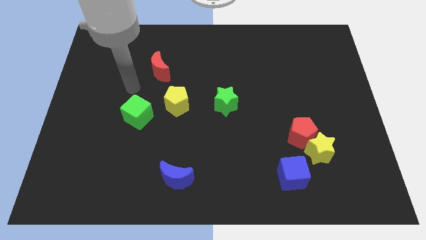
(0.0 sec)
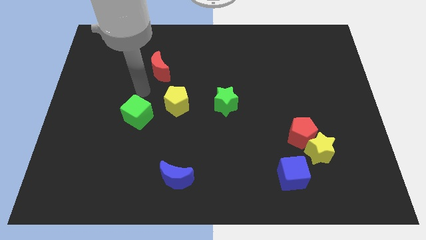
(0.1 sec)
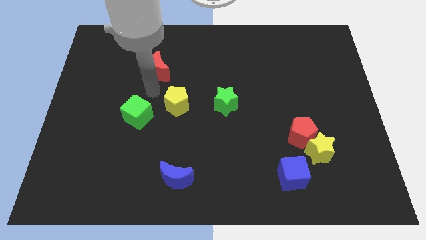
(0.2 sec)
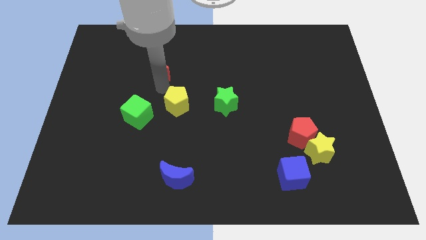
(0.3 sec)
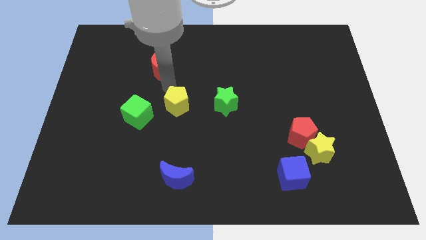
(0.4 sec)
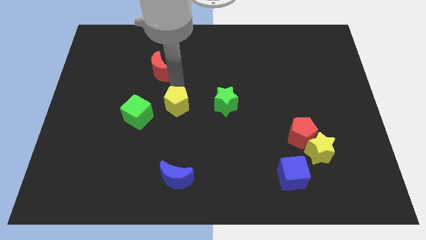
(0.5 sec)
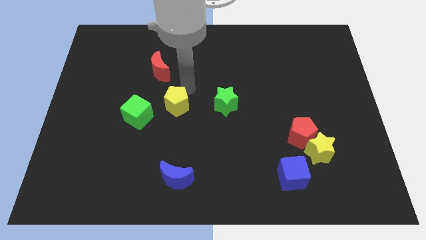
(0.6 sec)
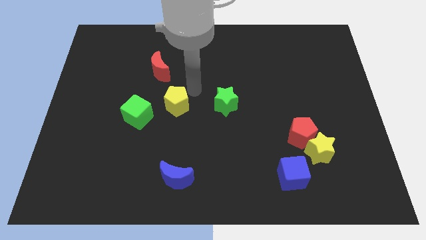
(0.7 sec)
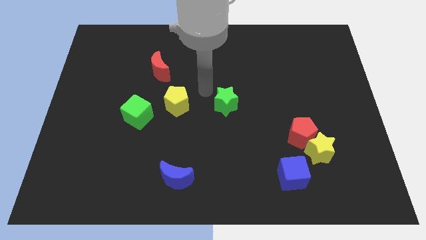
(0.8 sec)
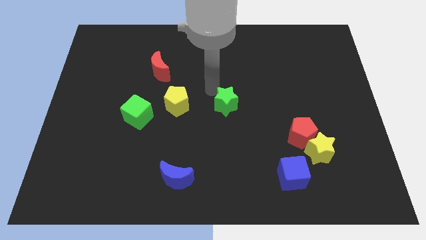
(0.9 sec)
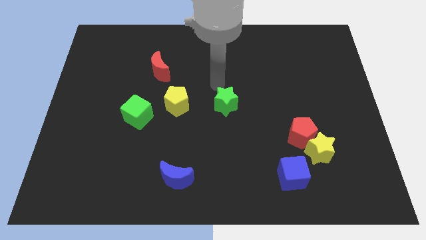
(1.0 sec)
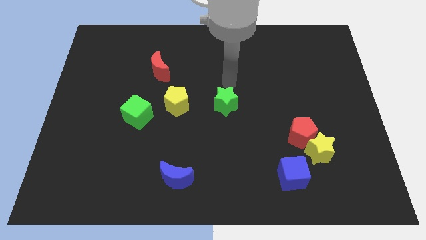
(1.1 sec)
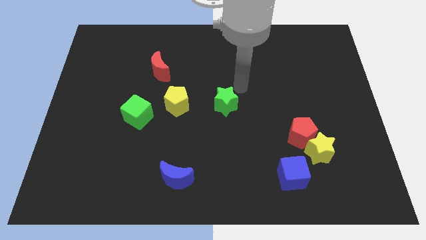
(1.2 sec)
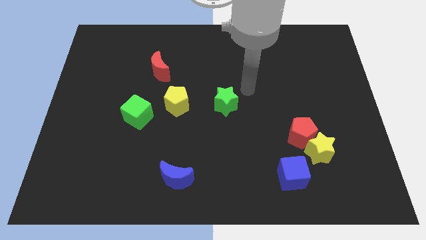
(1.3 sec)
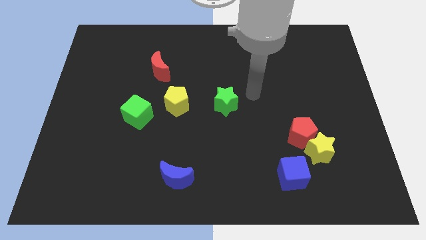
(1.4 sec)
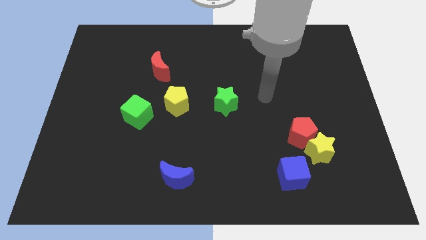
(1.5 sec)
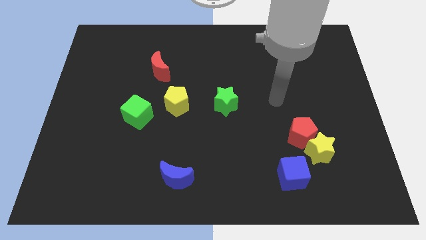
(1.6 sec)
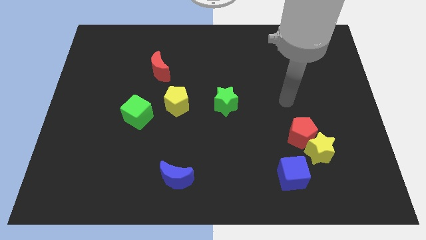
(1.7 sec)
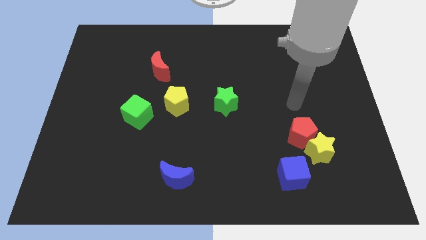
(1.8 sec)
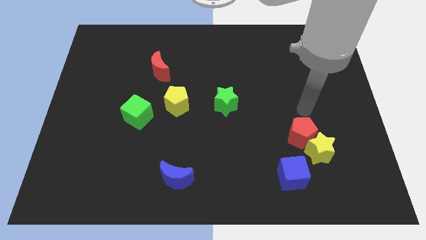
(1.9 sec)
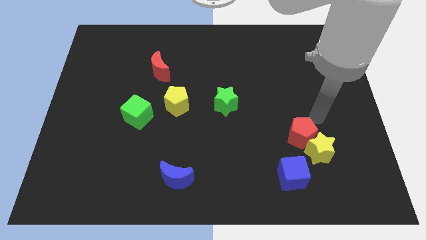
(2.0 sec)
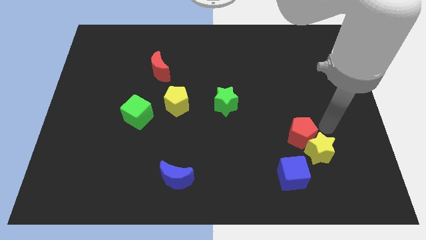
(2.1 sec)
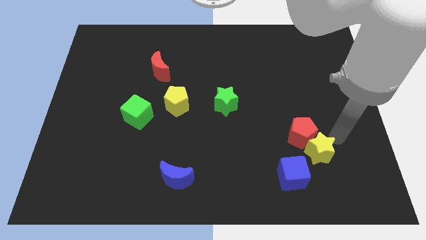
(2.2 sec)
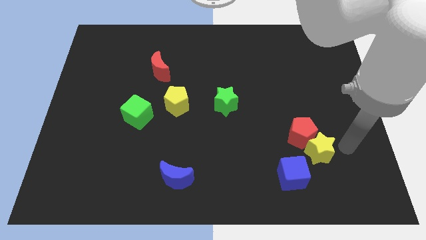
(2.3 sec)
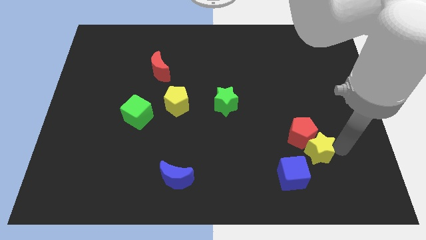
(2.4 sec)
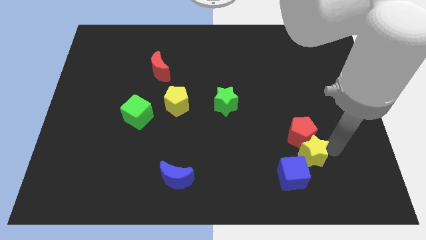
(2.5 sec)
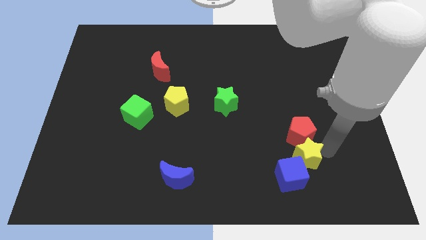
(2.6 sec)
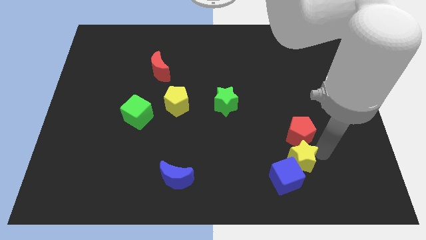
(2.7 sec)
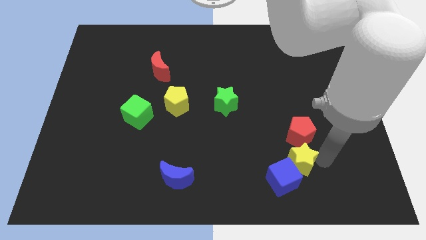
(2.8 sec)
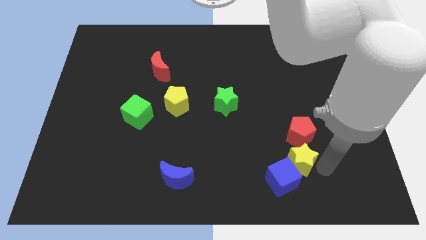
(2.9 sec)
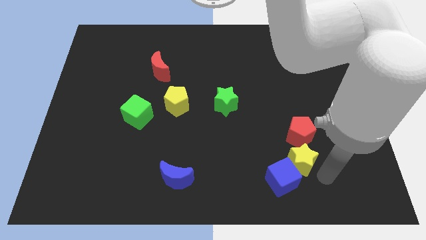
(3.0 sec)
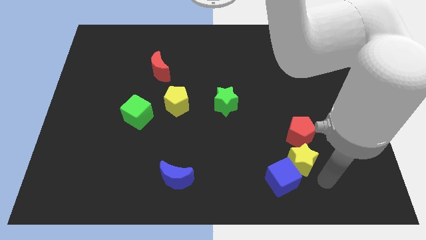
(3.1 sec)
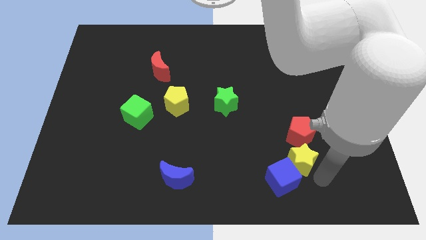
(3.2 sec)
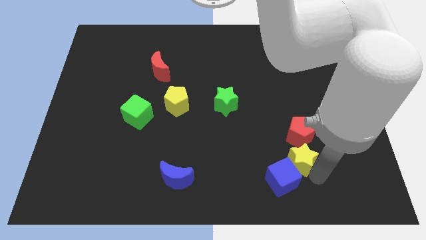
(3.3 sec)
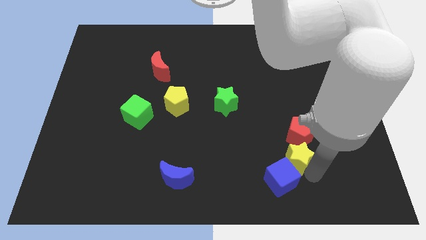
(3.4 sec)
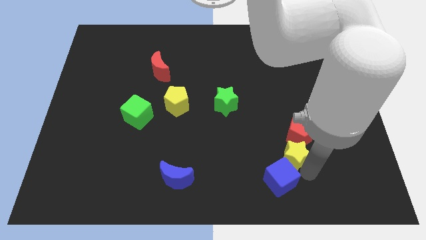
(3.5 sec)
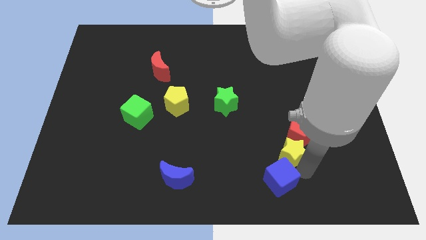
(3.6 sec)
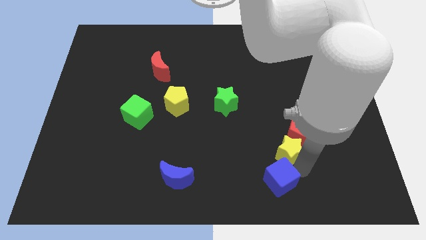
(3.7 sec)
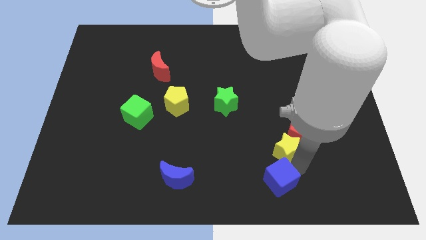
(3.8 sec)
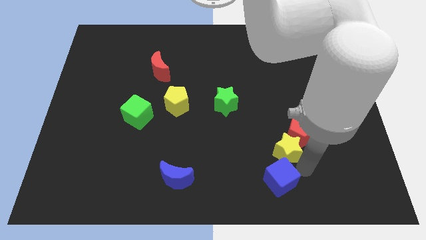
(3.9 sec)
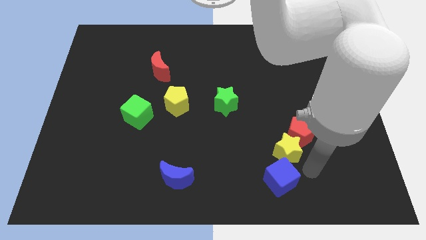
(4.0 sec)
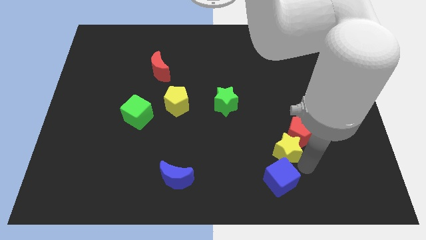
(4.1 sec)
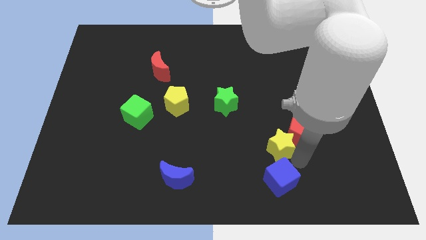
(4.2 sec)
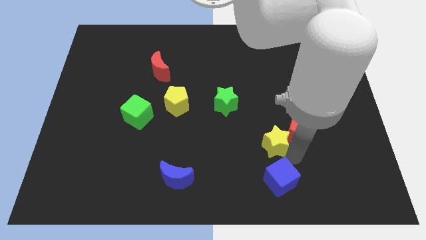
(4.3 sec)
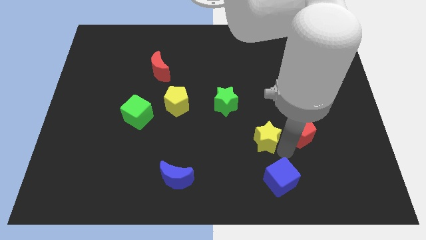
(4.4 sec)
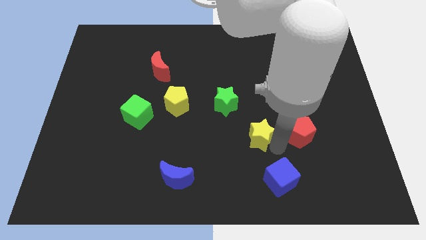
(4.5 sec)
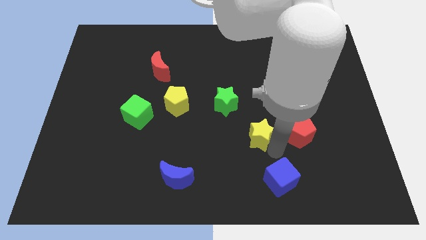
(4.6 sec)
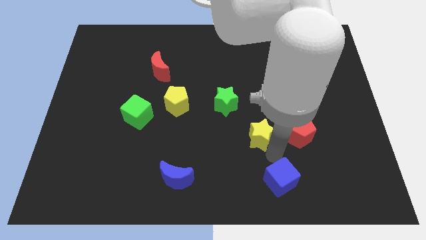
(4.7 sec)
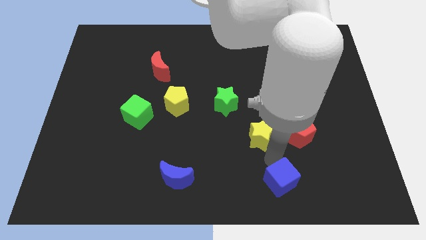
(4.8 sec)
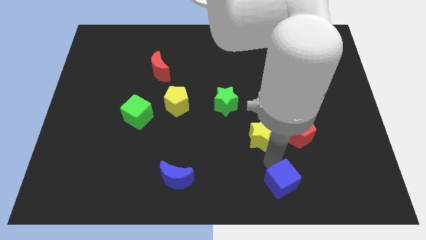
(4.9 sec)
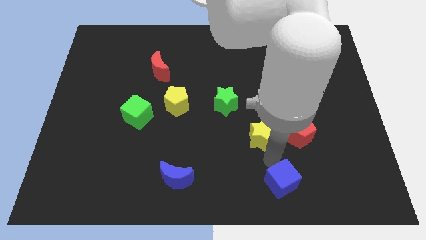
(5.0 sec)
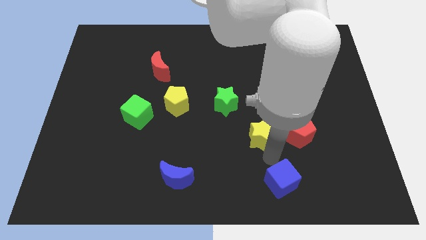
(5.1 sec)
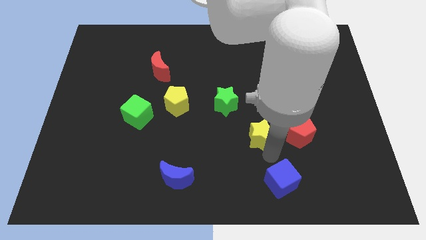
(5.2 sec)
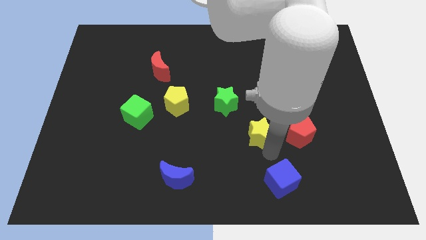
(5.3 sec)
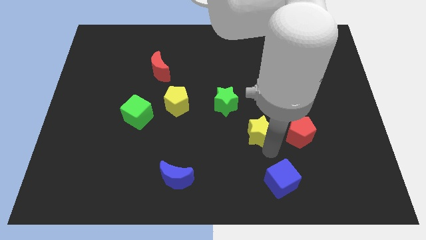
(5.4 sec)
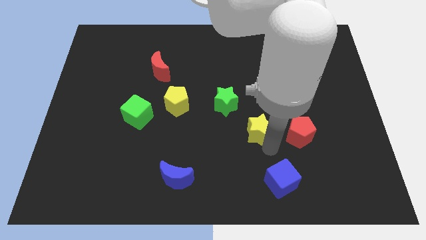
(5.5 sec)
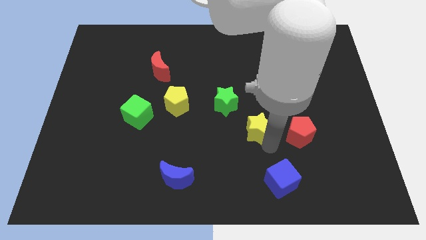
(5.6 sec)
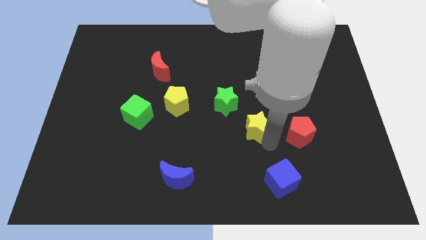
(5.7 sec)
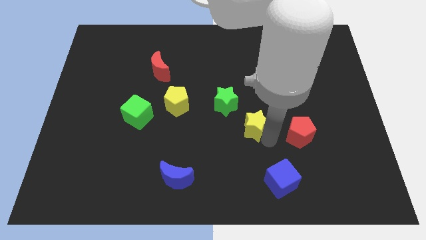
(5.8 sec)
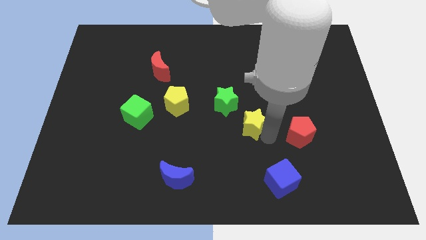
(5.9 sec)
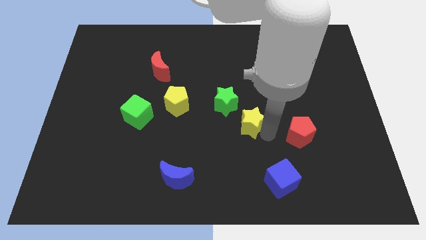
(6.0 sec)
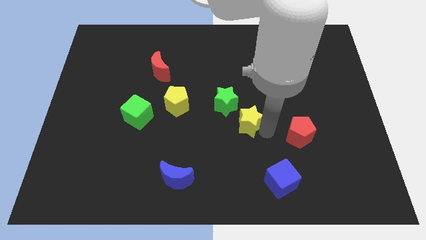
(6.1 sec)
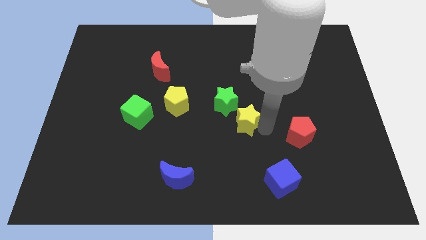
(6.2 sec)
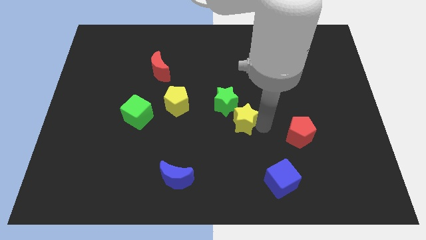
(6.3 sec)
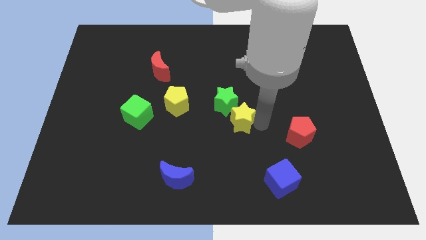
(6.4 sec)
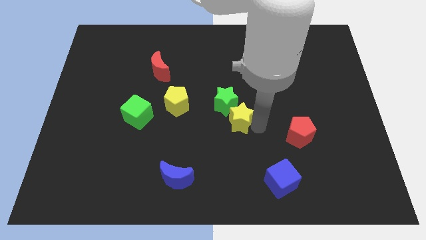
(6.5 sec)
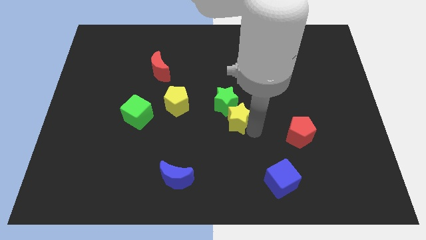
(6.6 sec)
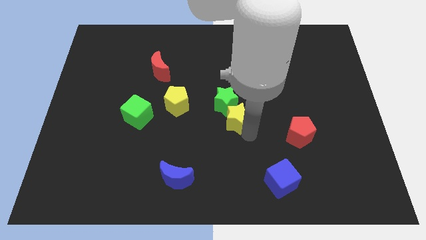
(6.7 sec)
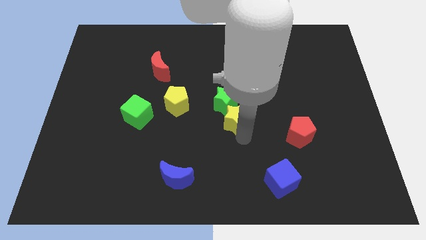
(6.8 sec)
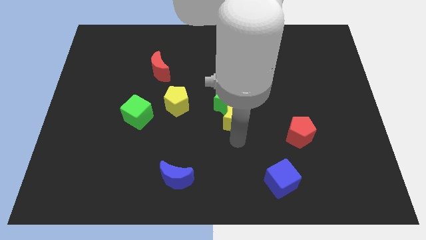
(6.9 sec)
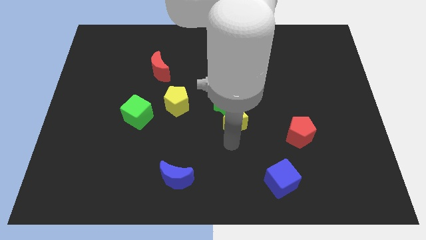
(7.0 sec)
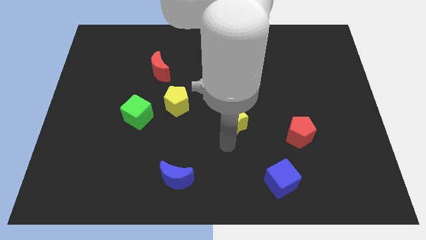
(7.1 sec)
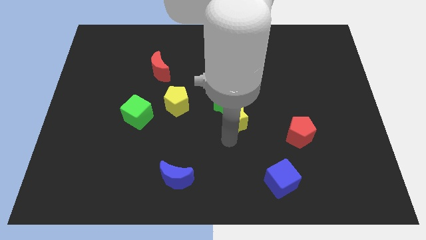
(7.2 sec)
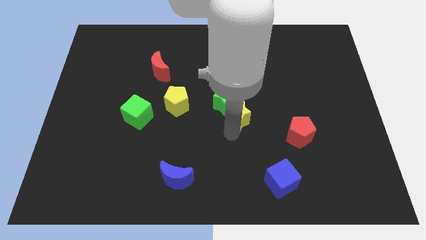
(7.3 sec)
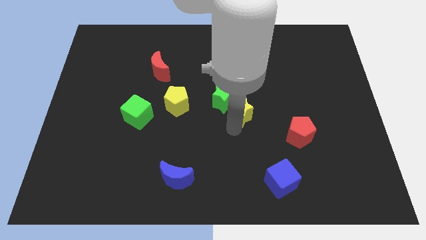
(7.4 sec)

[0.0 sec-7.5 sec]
slide the yellow star right of the yellow pentagon
